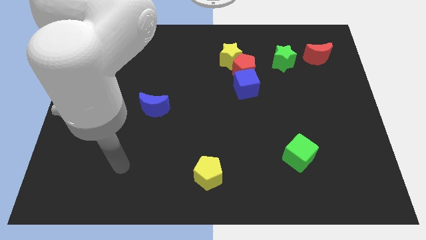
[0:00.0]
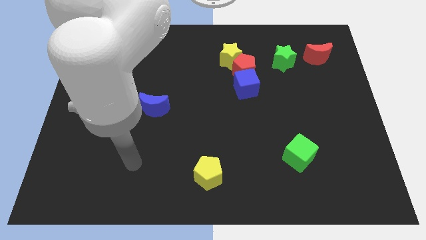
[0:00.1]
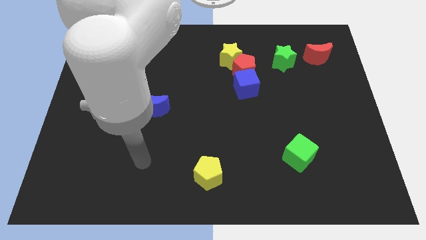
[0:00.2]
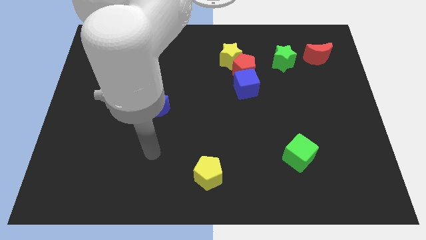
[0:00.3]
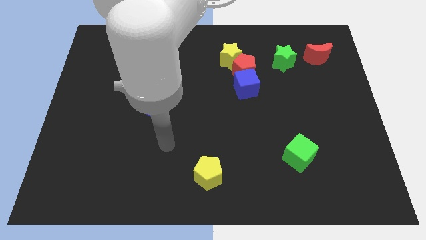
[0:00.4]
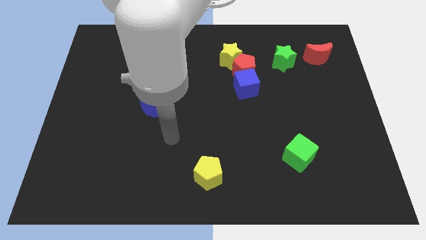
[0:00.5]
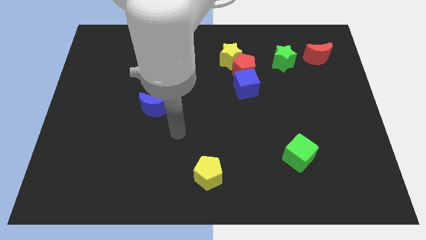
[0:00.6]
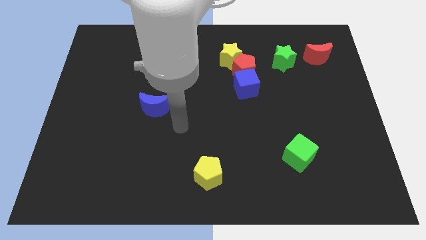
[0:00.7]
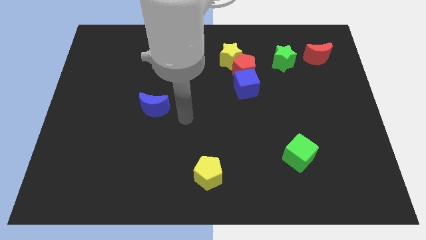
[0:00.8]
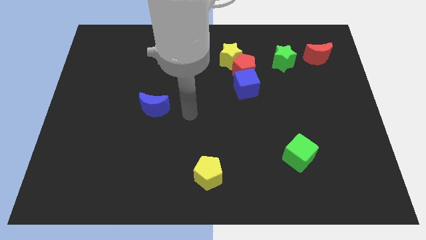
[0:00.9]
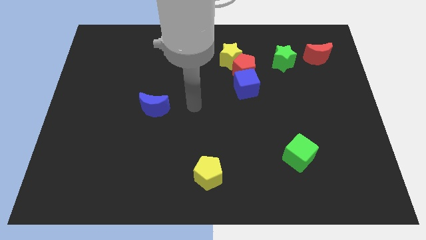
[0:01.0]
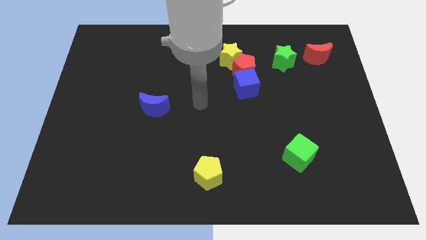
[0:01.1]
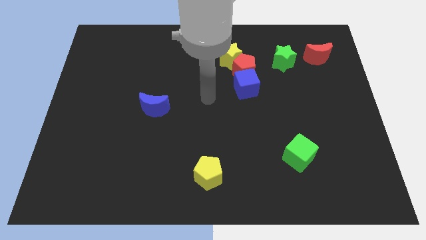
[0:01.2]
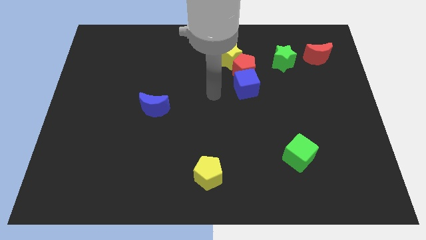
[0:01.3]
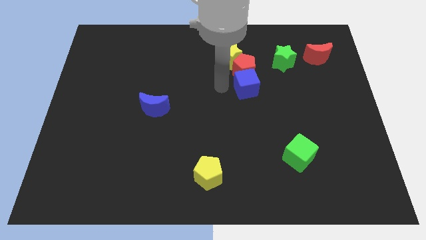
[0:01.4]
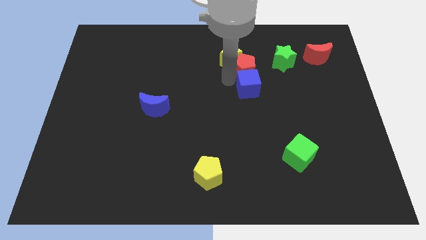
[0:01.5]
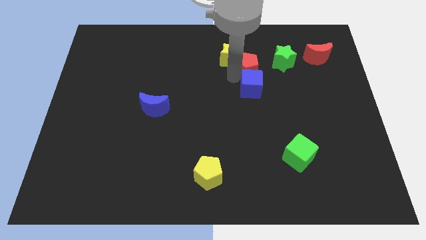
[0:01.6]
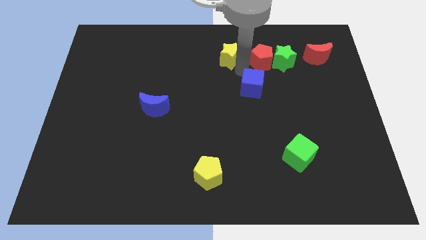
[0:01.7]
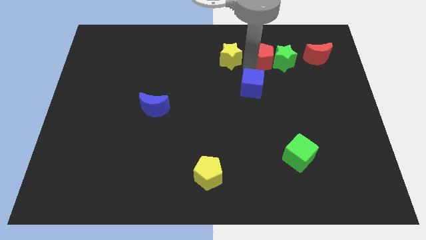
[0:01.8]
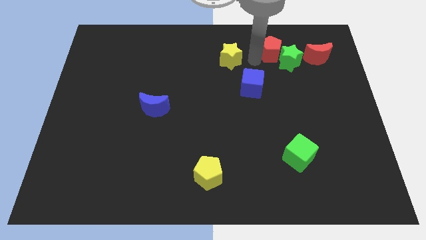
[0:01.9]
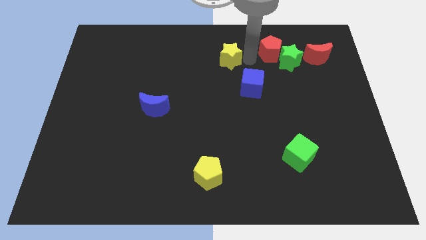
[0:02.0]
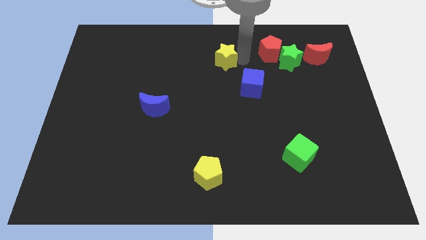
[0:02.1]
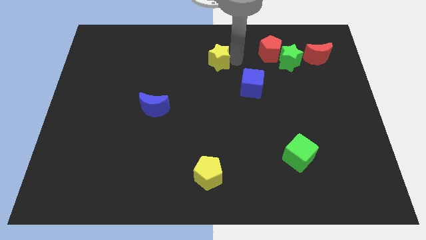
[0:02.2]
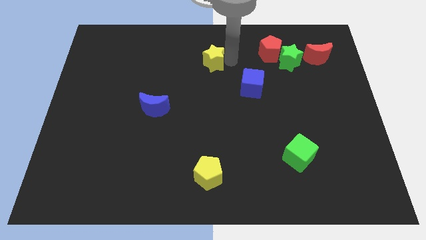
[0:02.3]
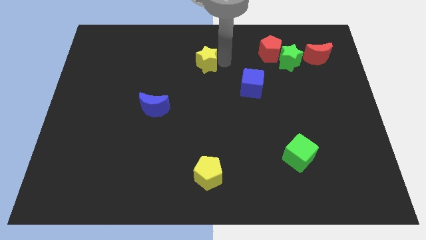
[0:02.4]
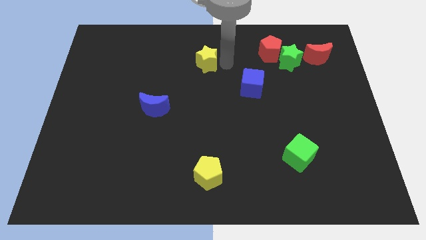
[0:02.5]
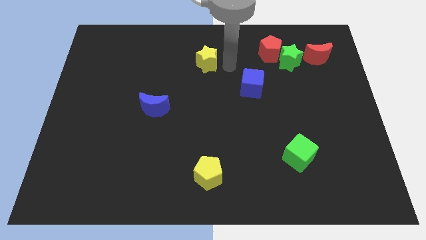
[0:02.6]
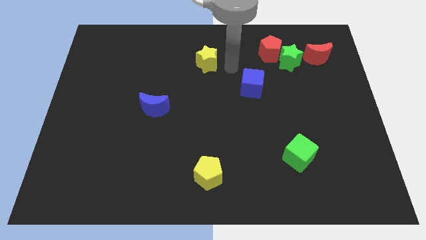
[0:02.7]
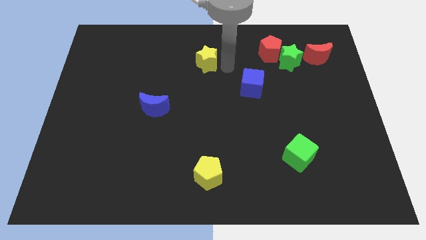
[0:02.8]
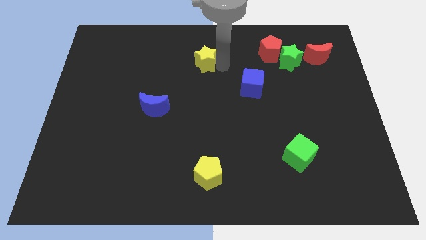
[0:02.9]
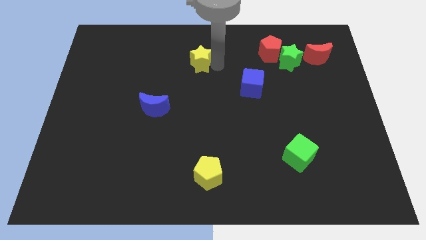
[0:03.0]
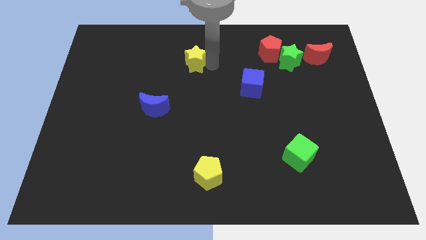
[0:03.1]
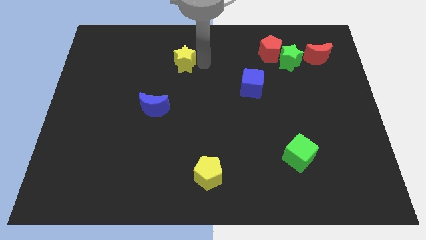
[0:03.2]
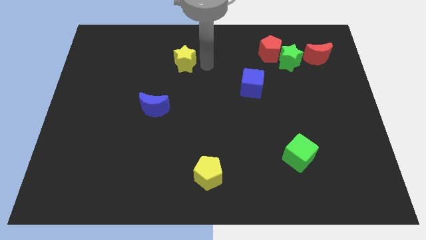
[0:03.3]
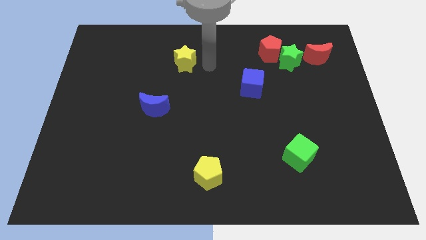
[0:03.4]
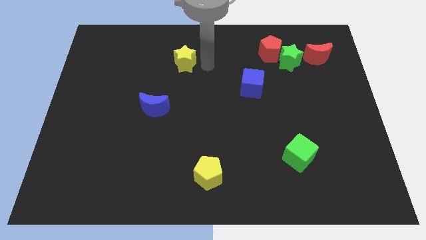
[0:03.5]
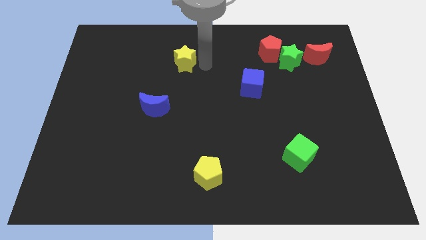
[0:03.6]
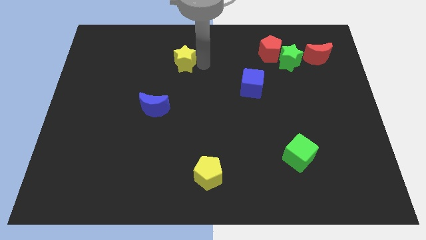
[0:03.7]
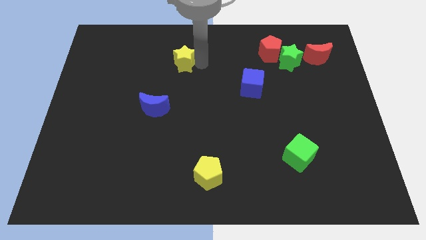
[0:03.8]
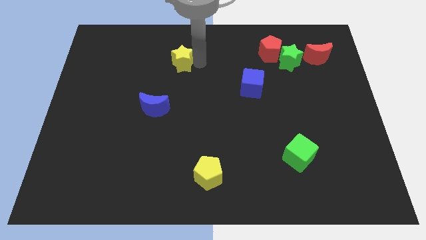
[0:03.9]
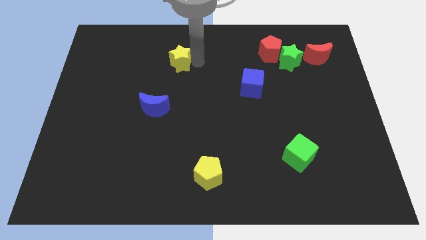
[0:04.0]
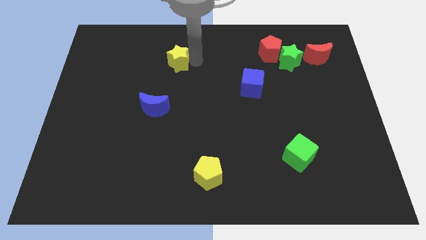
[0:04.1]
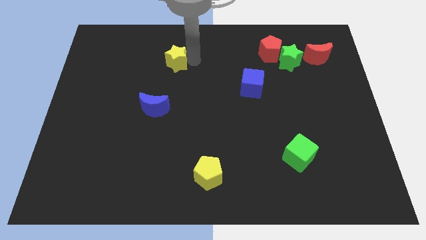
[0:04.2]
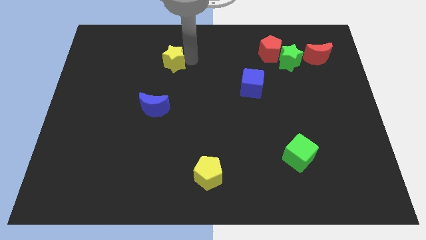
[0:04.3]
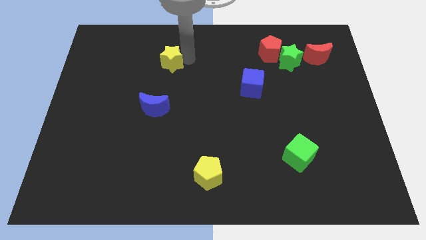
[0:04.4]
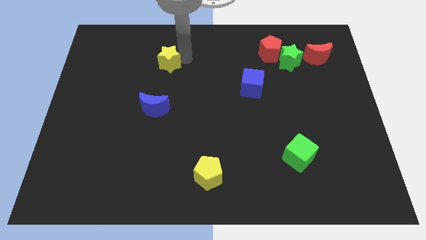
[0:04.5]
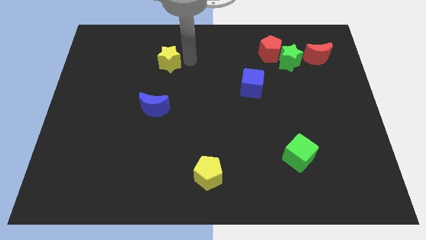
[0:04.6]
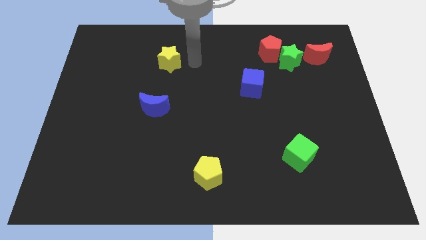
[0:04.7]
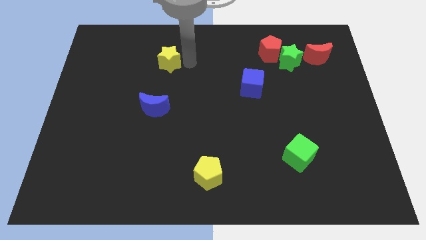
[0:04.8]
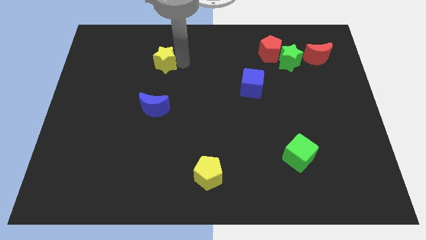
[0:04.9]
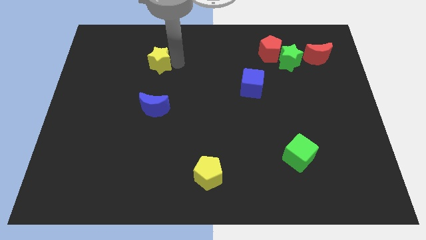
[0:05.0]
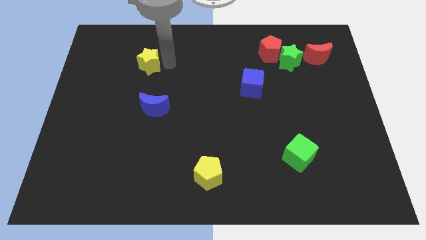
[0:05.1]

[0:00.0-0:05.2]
move the yellow star left

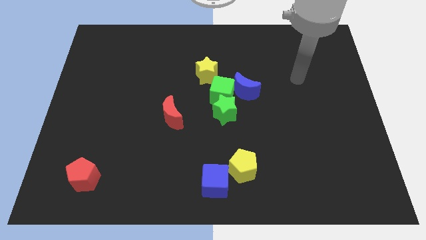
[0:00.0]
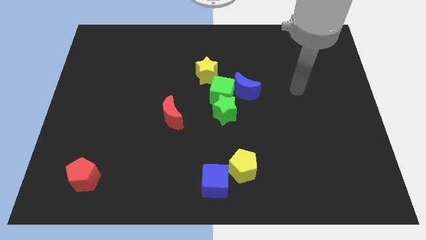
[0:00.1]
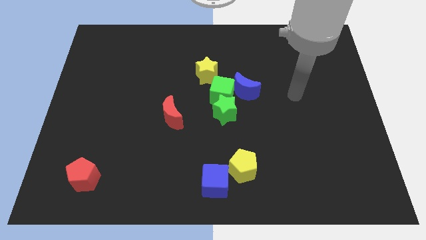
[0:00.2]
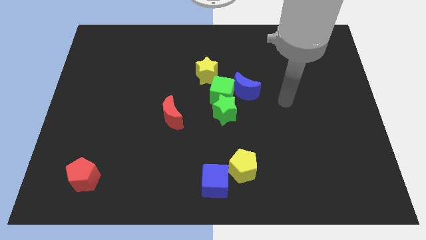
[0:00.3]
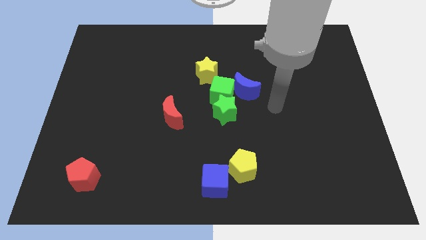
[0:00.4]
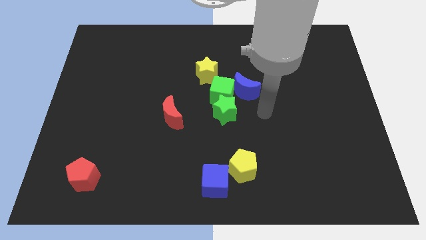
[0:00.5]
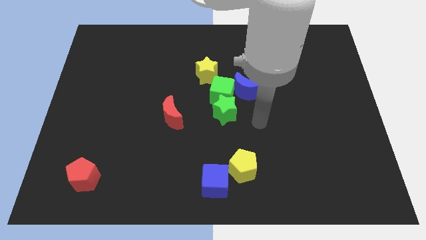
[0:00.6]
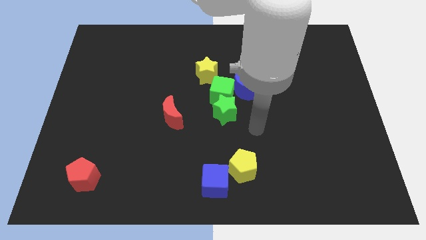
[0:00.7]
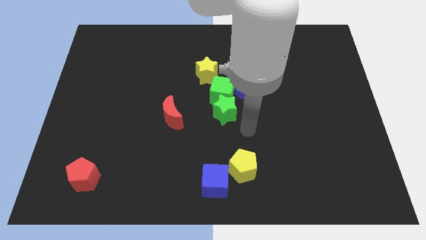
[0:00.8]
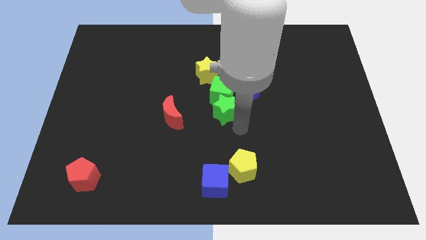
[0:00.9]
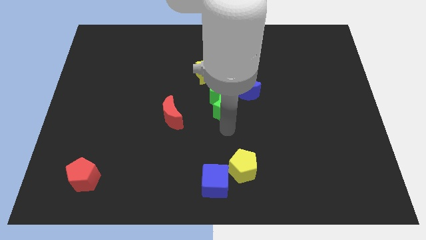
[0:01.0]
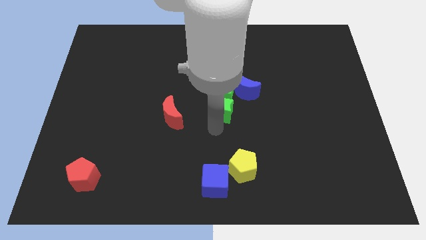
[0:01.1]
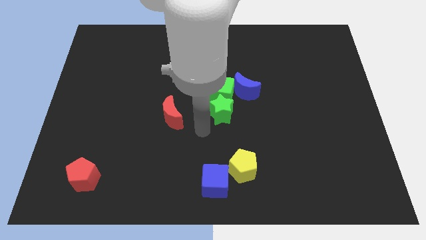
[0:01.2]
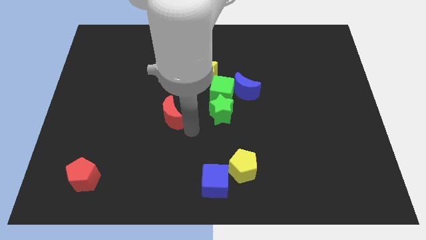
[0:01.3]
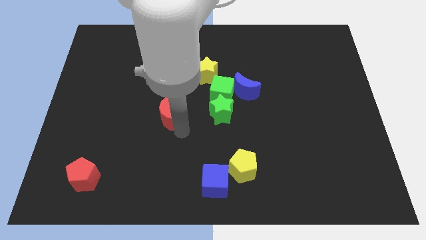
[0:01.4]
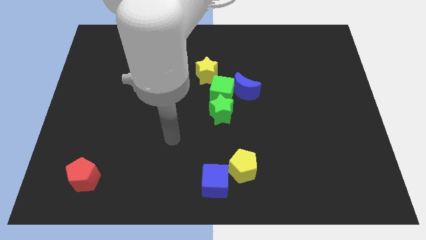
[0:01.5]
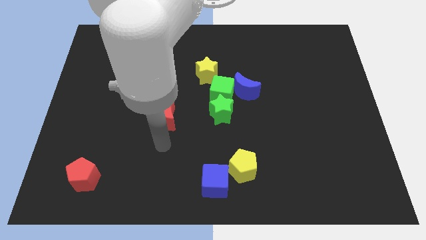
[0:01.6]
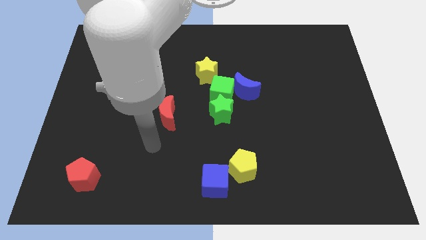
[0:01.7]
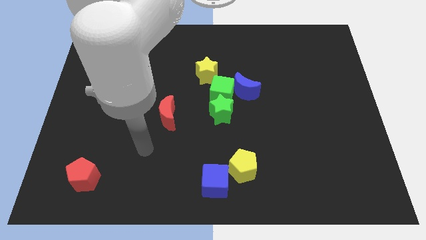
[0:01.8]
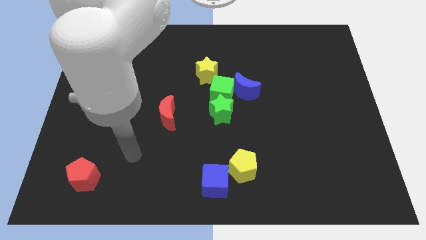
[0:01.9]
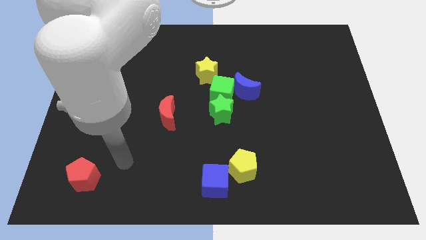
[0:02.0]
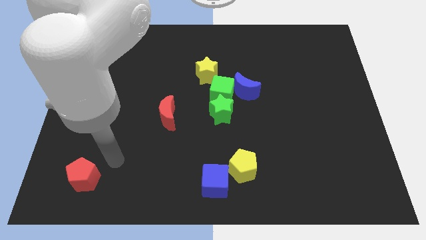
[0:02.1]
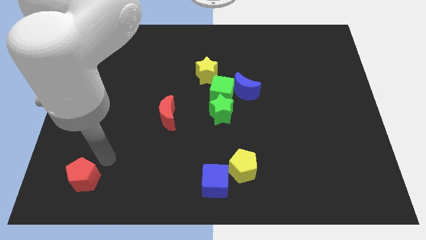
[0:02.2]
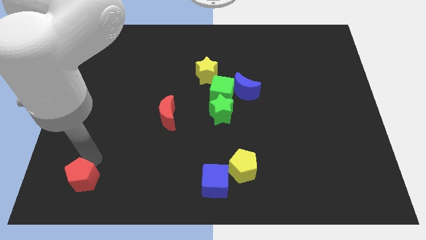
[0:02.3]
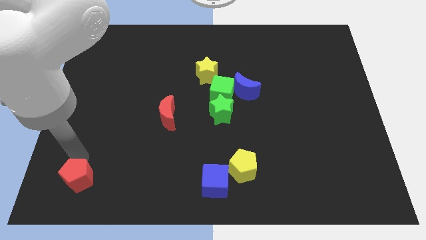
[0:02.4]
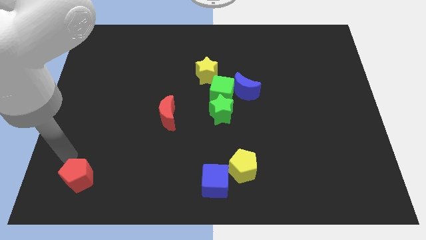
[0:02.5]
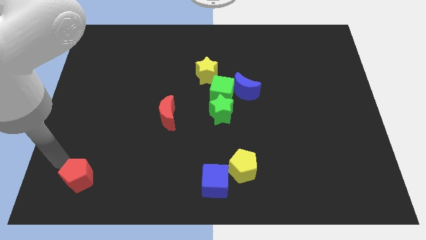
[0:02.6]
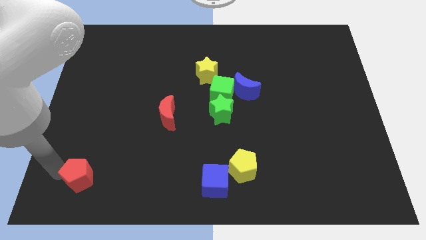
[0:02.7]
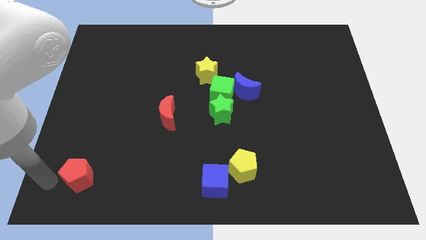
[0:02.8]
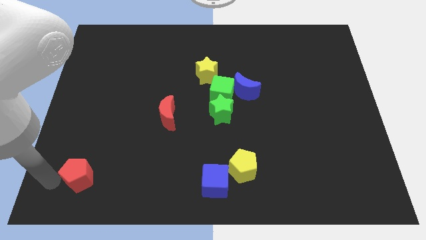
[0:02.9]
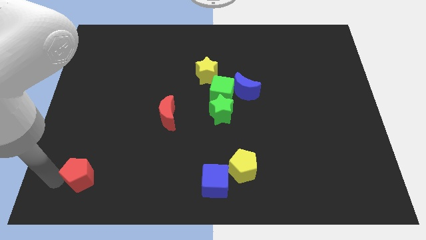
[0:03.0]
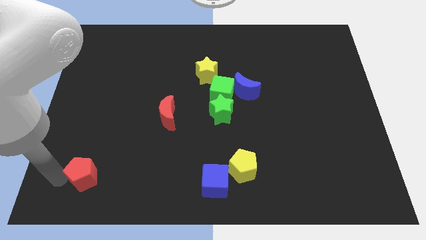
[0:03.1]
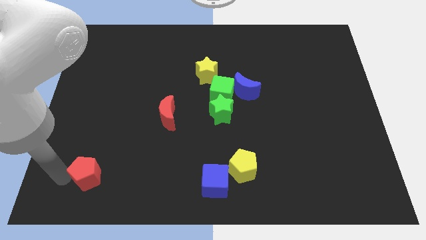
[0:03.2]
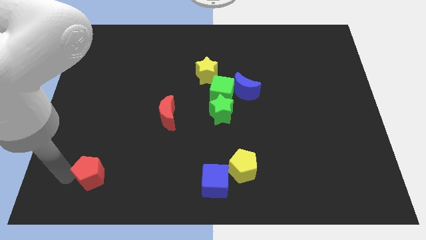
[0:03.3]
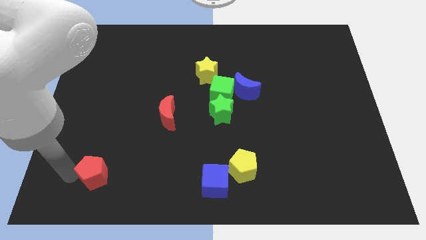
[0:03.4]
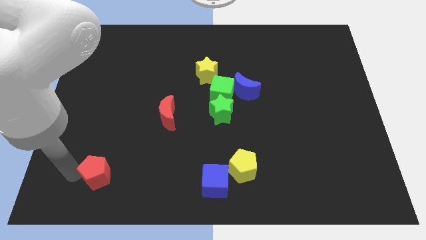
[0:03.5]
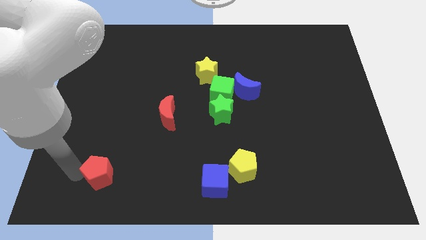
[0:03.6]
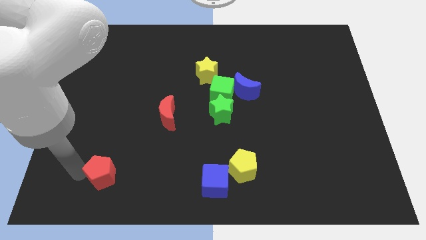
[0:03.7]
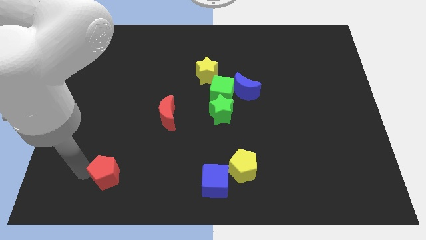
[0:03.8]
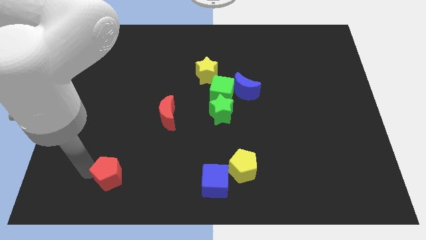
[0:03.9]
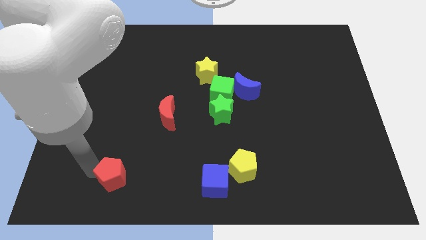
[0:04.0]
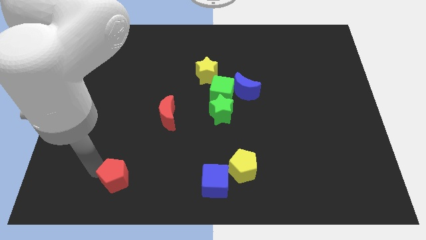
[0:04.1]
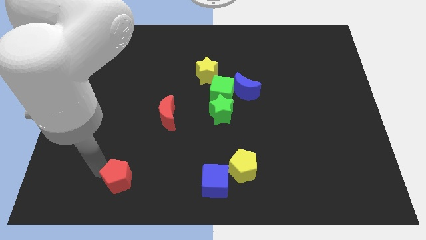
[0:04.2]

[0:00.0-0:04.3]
move the red pentagon a bit right
